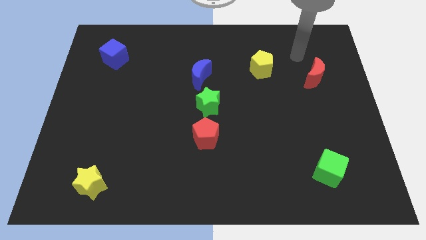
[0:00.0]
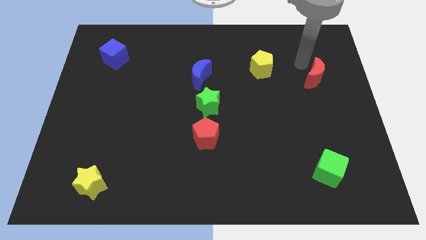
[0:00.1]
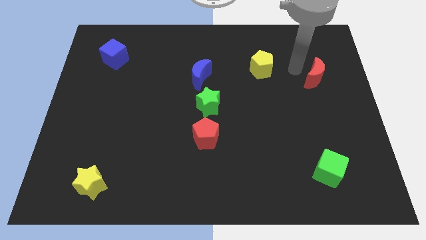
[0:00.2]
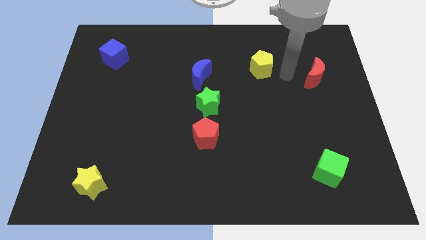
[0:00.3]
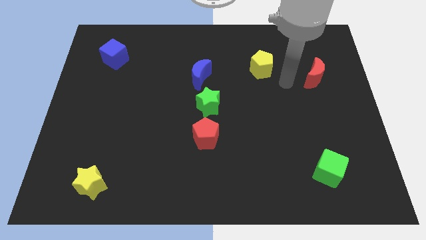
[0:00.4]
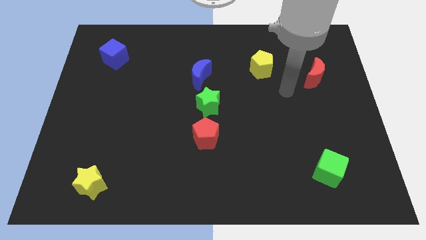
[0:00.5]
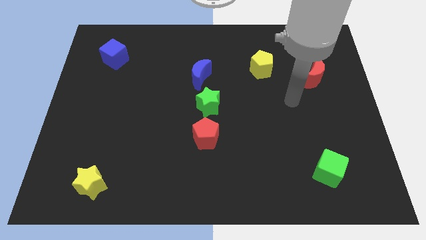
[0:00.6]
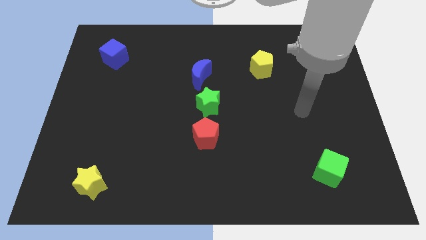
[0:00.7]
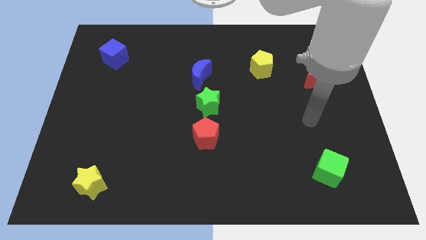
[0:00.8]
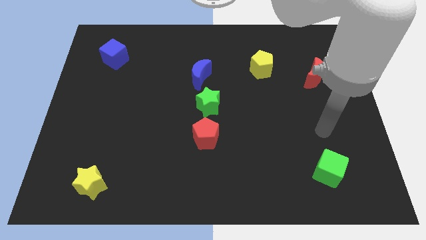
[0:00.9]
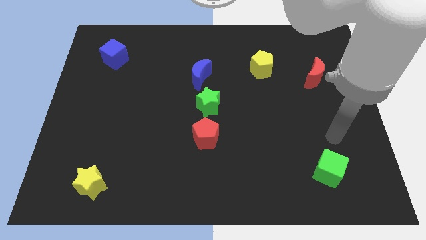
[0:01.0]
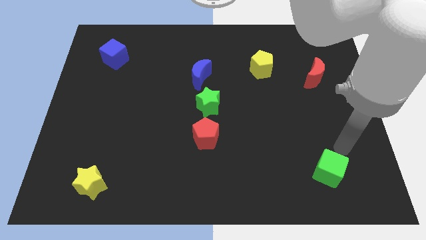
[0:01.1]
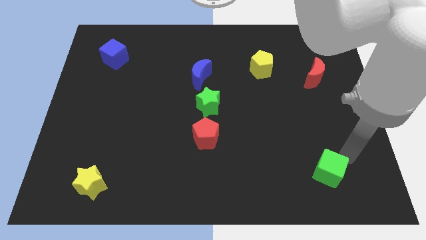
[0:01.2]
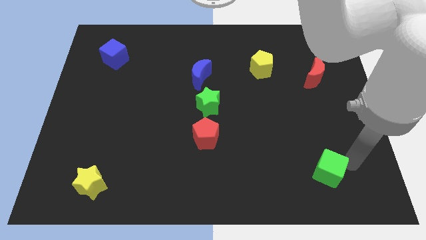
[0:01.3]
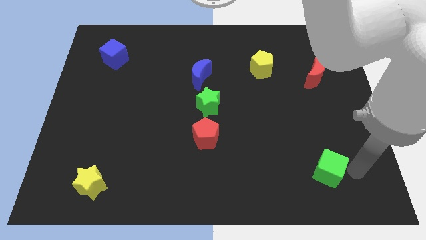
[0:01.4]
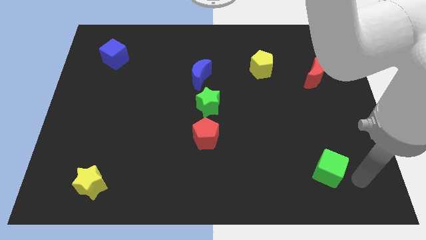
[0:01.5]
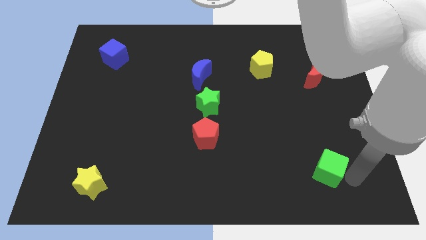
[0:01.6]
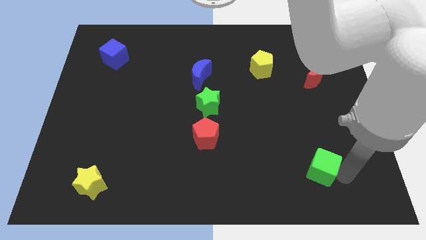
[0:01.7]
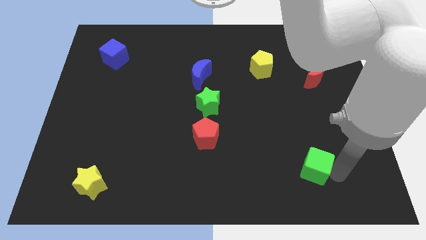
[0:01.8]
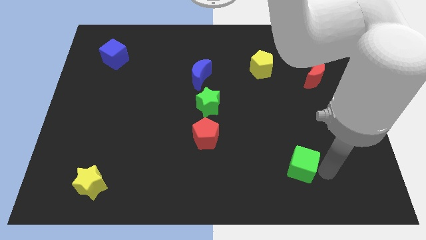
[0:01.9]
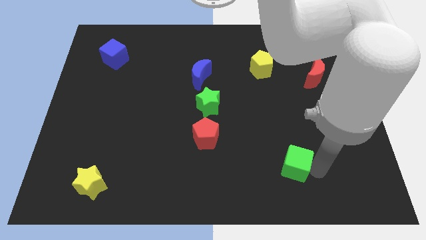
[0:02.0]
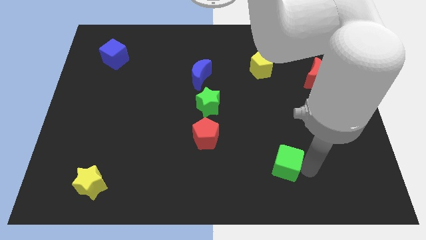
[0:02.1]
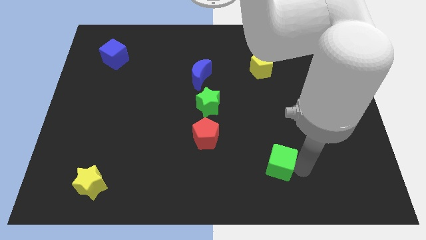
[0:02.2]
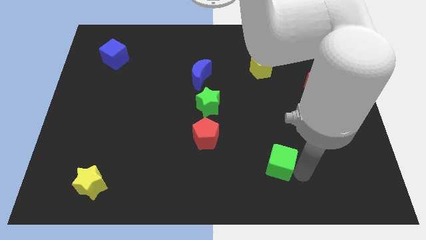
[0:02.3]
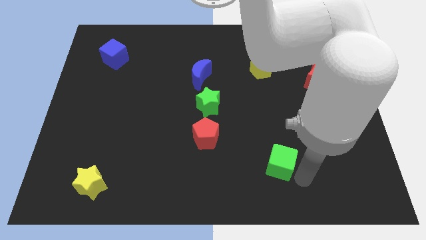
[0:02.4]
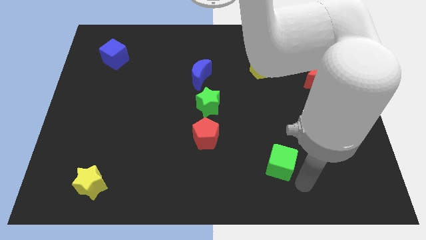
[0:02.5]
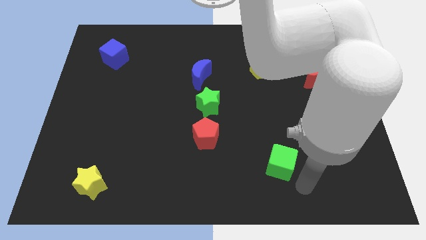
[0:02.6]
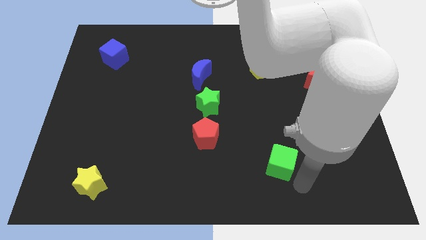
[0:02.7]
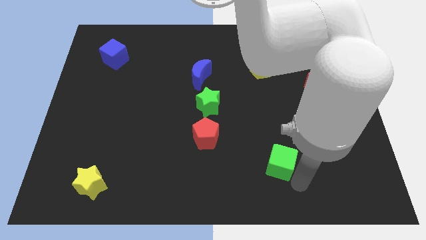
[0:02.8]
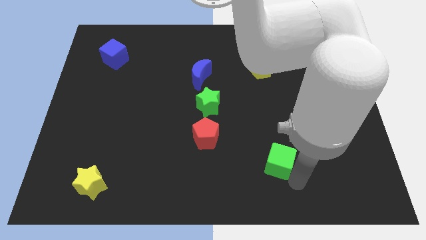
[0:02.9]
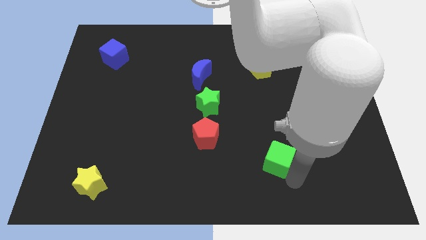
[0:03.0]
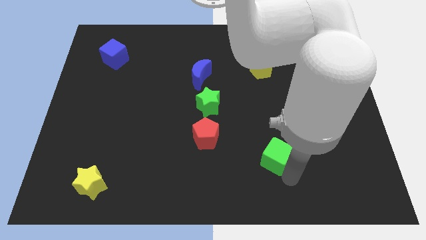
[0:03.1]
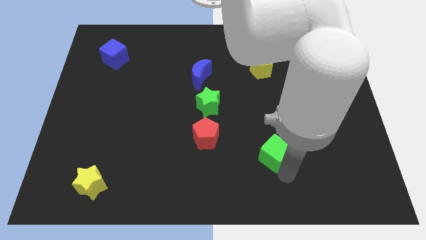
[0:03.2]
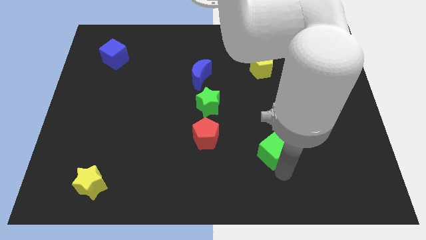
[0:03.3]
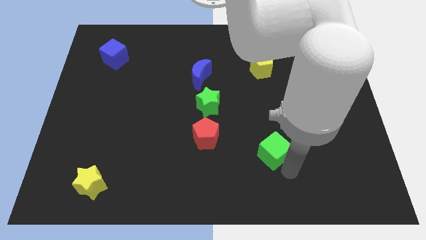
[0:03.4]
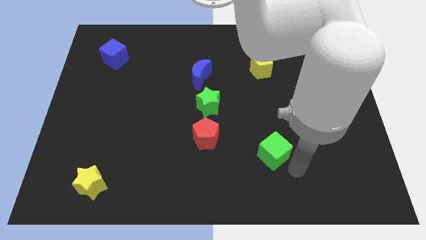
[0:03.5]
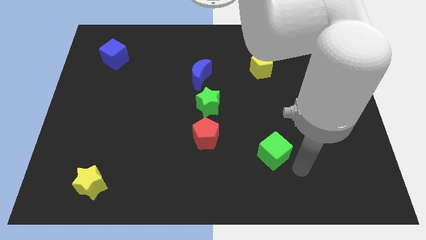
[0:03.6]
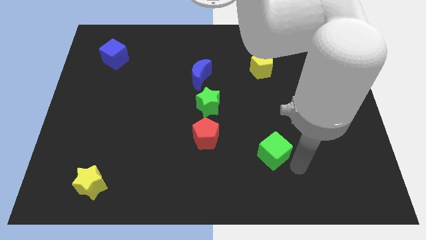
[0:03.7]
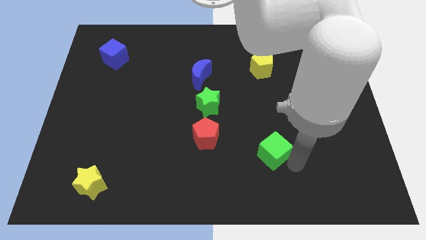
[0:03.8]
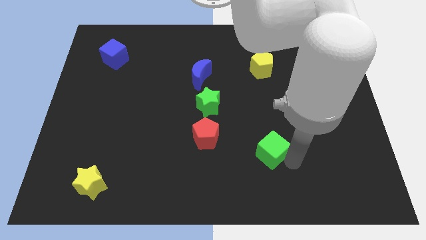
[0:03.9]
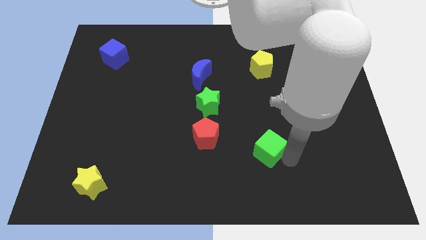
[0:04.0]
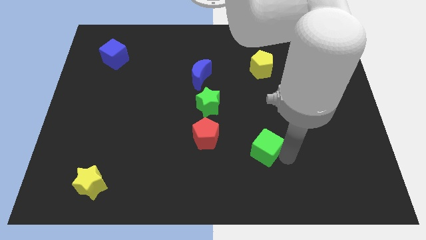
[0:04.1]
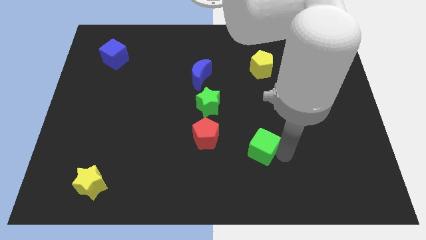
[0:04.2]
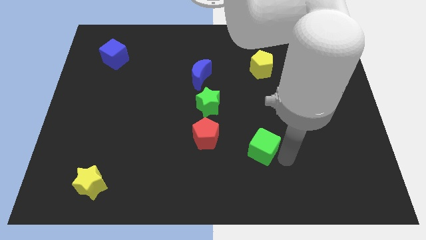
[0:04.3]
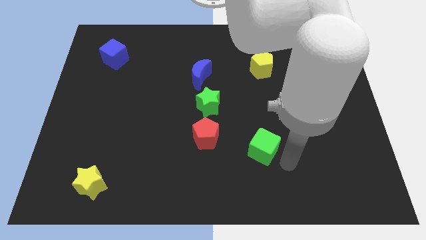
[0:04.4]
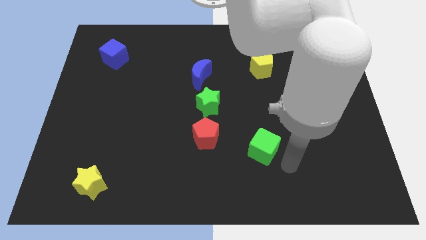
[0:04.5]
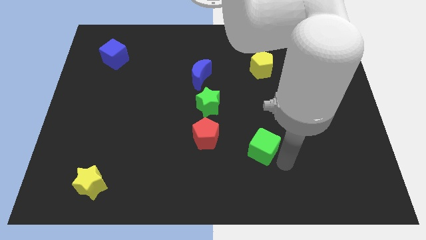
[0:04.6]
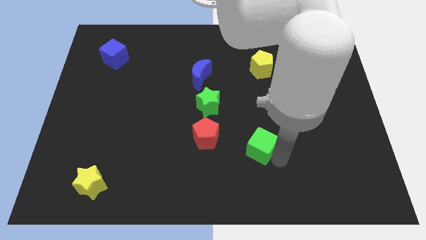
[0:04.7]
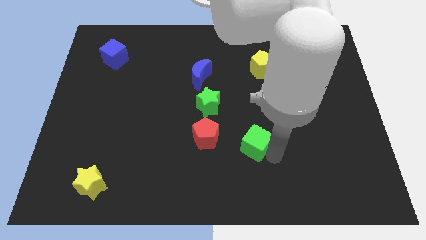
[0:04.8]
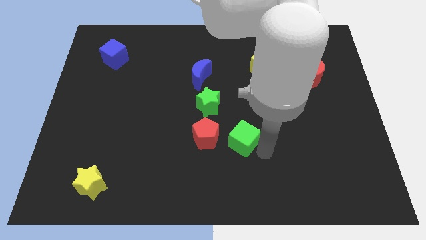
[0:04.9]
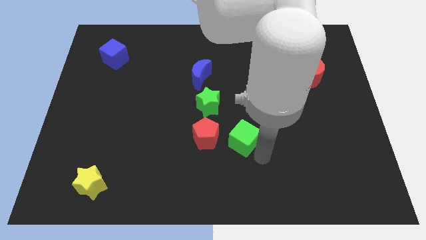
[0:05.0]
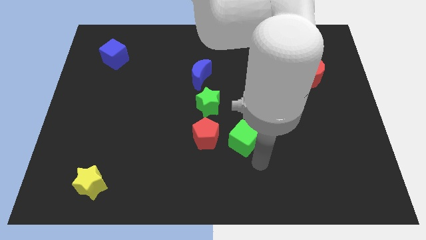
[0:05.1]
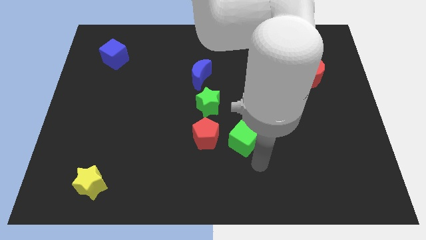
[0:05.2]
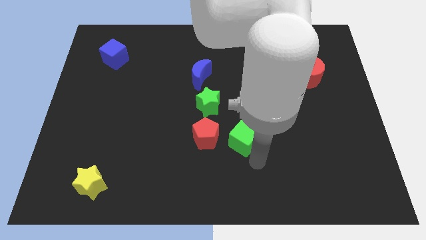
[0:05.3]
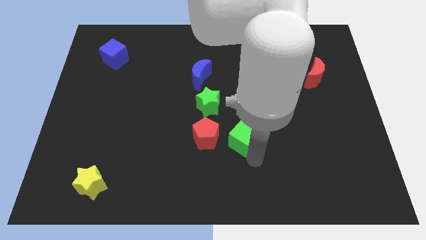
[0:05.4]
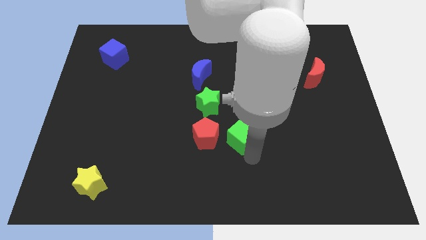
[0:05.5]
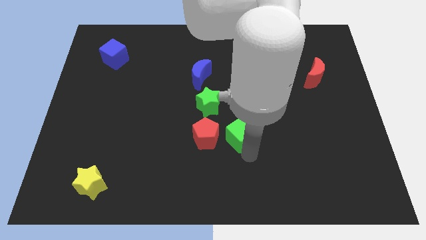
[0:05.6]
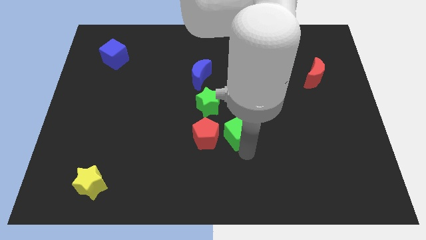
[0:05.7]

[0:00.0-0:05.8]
put the green cube diagonally up and to the right of the red pentagon

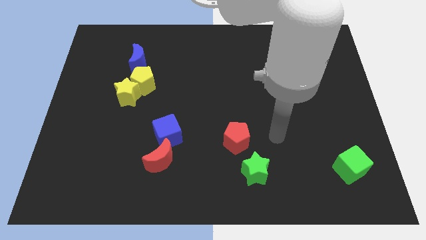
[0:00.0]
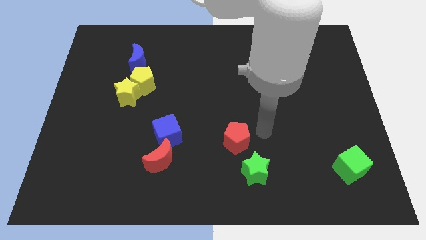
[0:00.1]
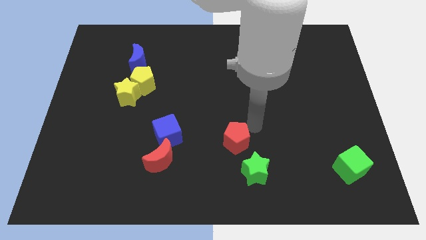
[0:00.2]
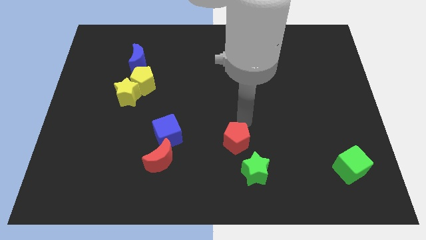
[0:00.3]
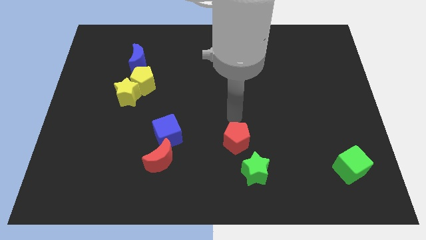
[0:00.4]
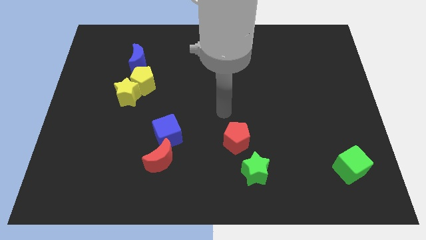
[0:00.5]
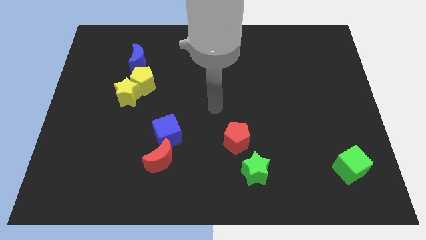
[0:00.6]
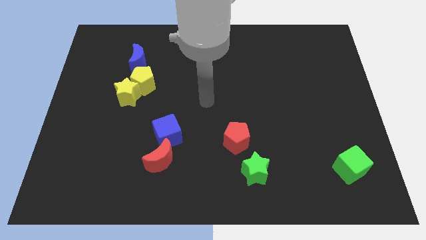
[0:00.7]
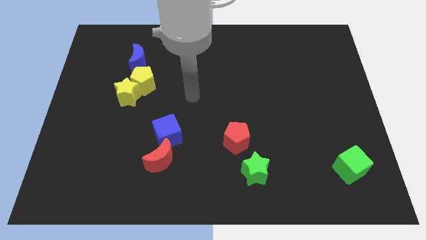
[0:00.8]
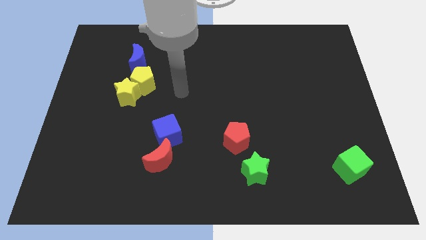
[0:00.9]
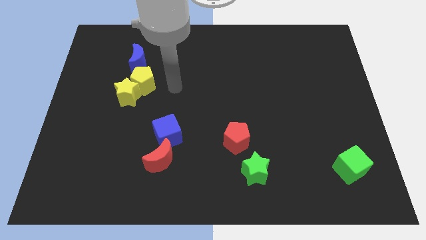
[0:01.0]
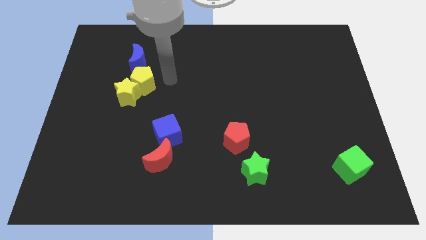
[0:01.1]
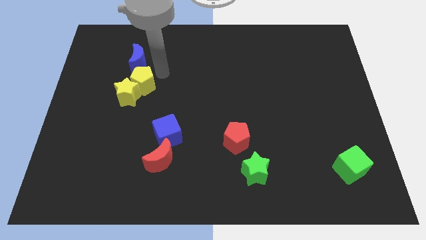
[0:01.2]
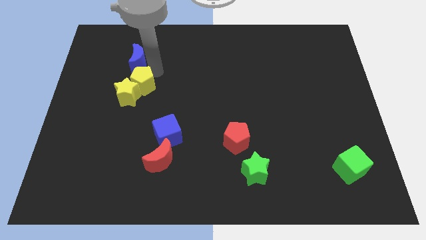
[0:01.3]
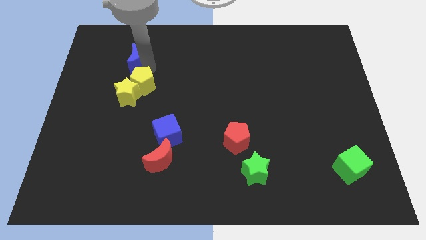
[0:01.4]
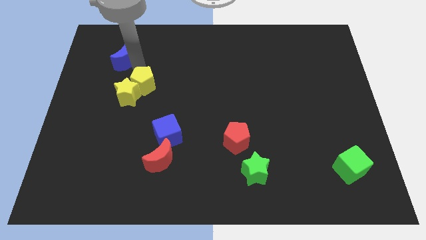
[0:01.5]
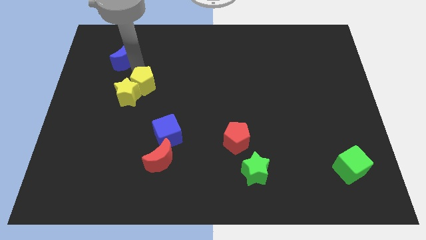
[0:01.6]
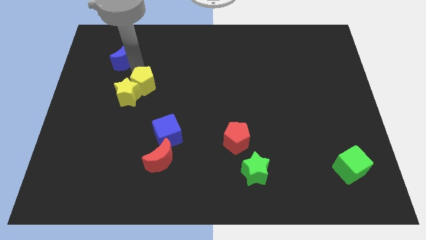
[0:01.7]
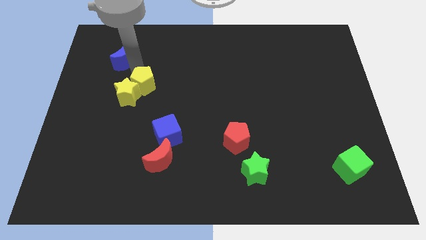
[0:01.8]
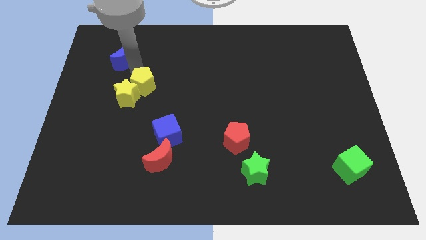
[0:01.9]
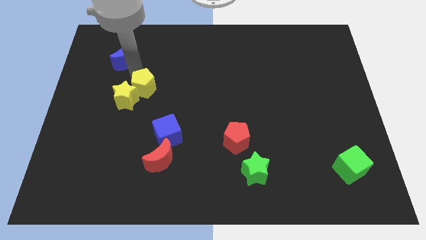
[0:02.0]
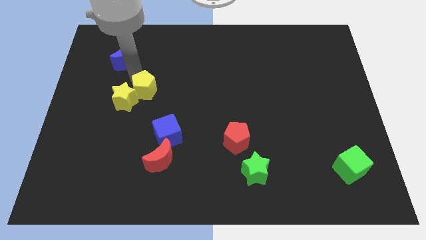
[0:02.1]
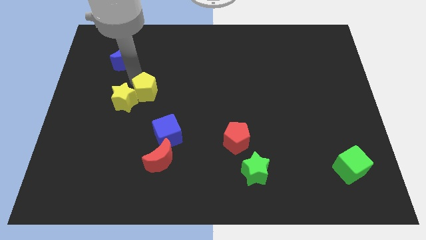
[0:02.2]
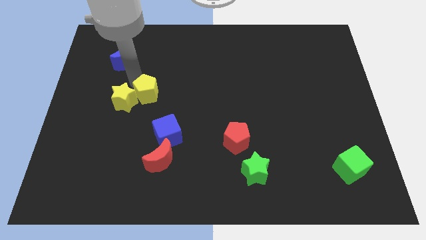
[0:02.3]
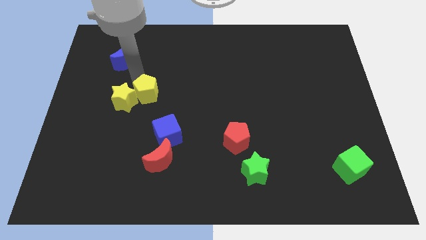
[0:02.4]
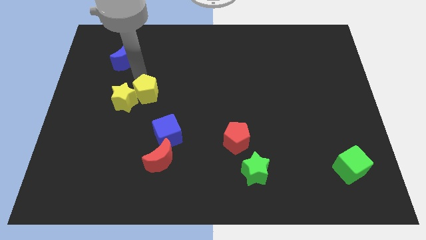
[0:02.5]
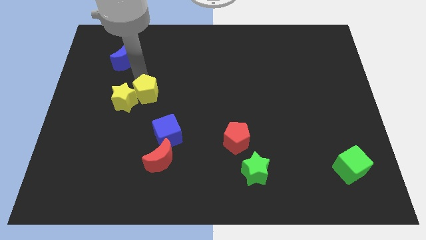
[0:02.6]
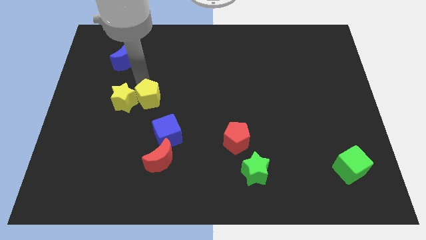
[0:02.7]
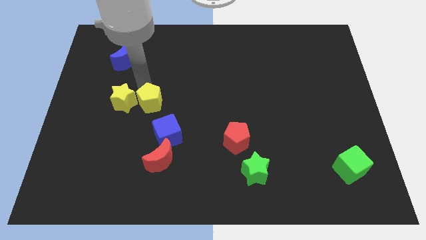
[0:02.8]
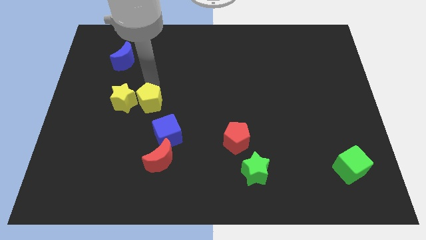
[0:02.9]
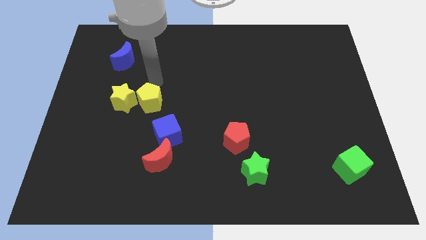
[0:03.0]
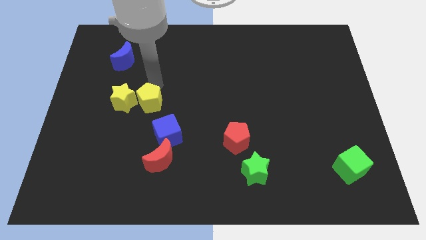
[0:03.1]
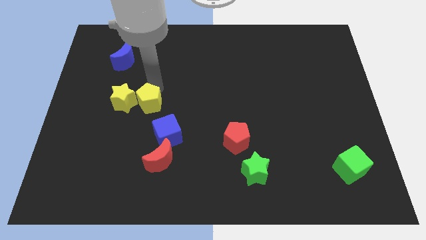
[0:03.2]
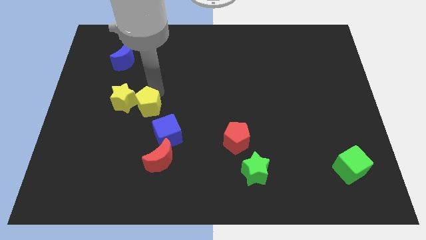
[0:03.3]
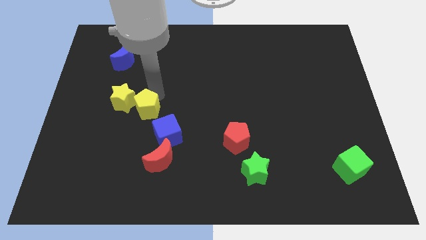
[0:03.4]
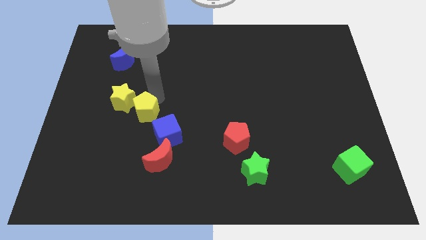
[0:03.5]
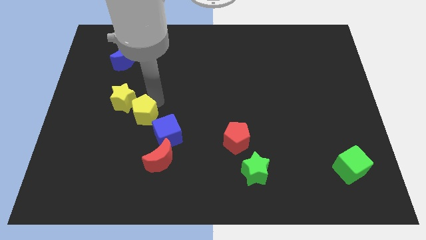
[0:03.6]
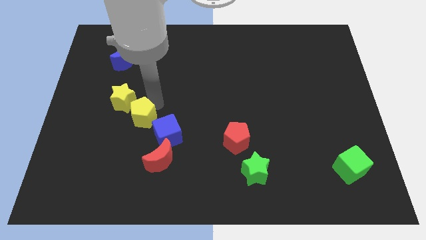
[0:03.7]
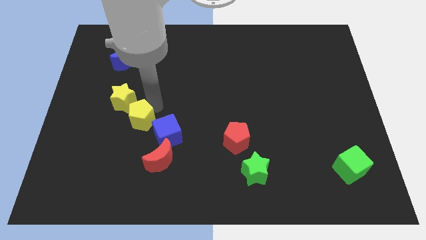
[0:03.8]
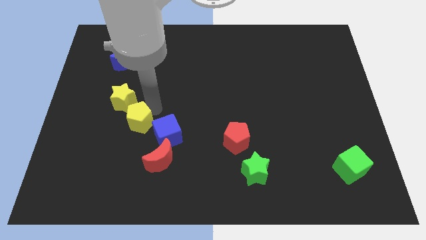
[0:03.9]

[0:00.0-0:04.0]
move the yellow pentagon to the top left of the red moon
